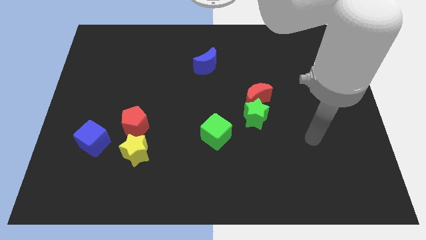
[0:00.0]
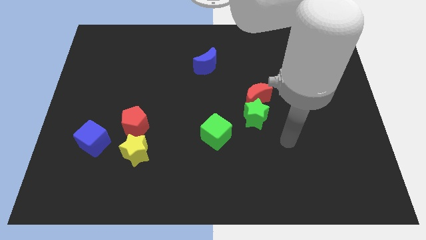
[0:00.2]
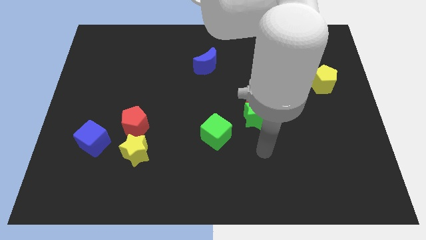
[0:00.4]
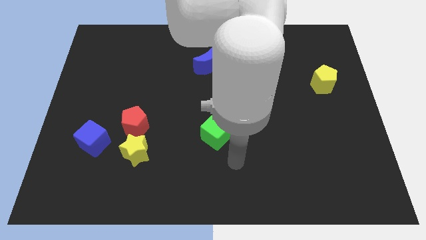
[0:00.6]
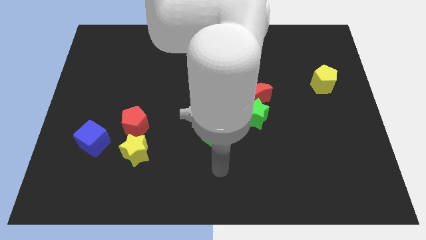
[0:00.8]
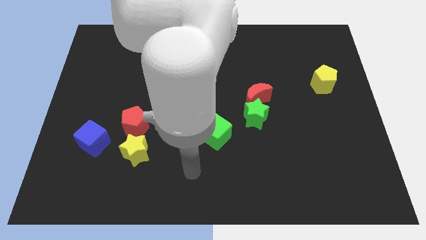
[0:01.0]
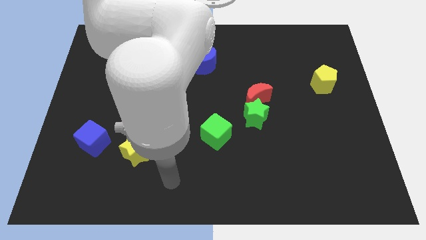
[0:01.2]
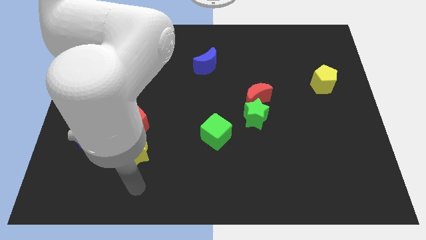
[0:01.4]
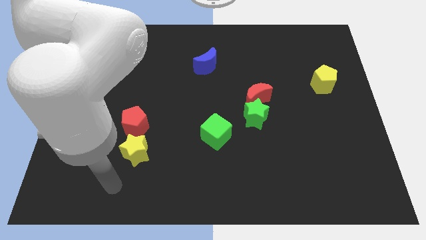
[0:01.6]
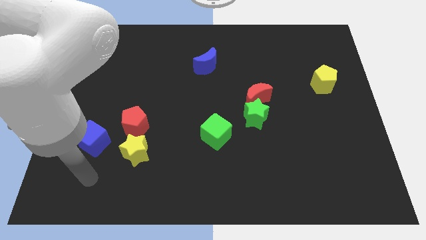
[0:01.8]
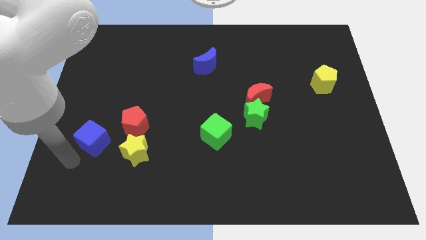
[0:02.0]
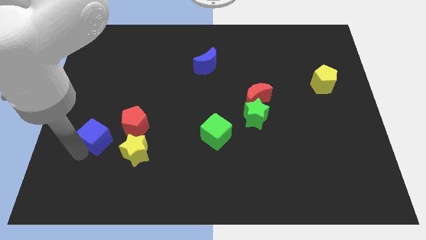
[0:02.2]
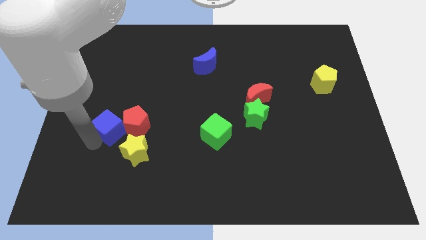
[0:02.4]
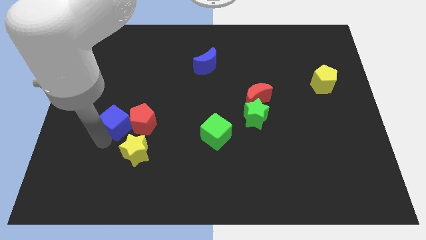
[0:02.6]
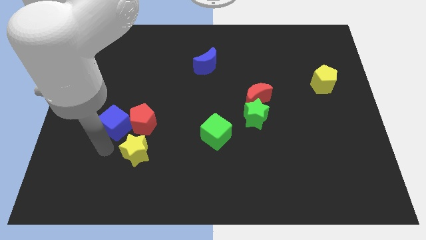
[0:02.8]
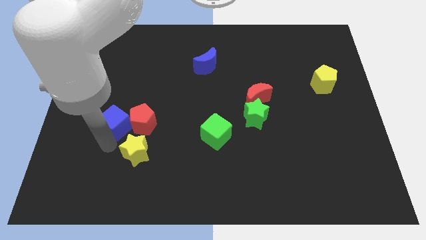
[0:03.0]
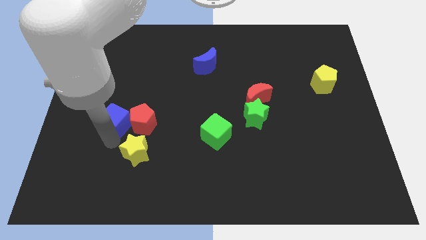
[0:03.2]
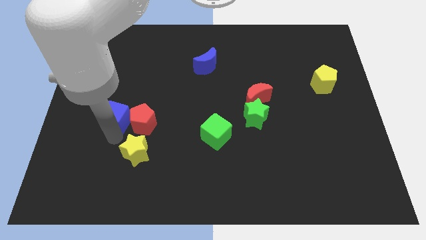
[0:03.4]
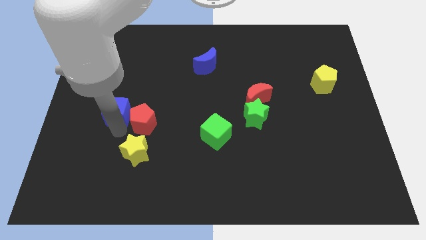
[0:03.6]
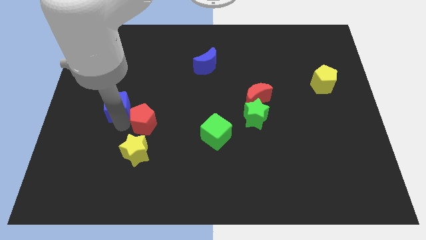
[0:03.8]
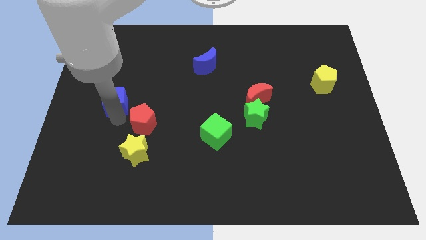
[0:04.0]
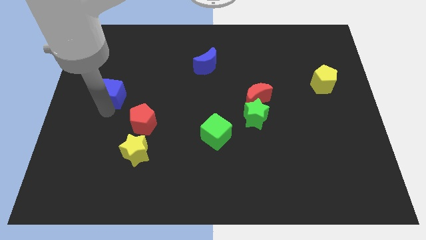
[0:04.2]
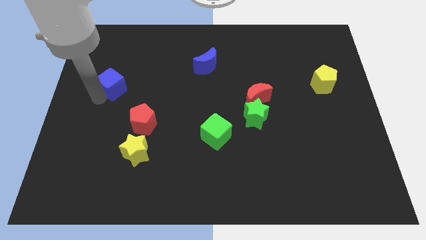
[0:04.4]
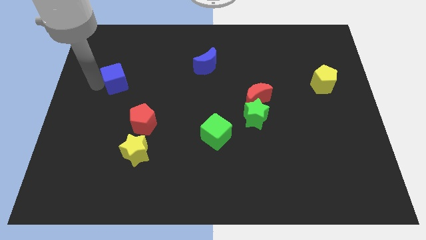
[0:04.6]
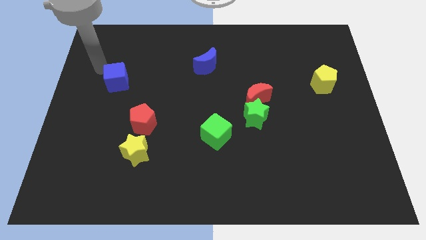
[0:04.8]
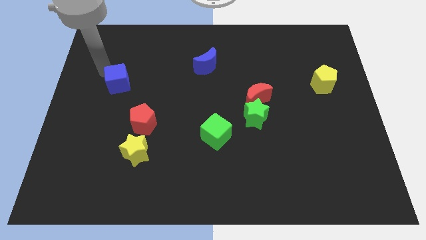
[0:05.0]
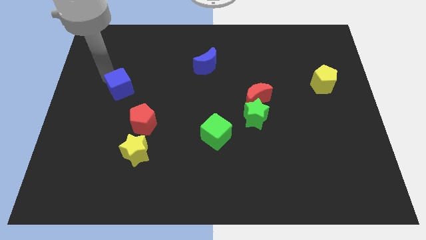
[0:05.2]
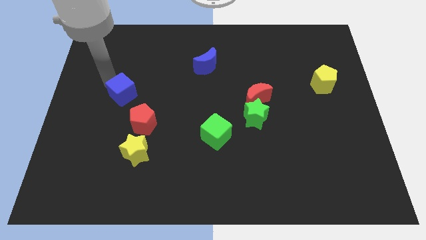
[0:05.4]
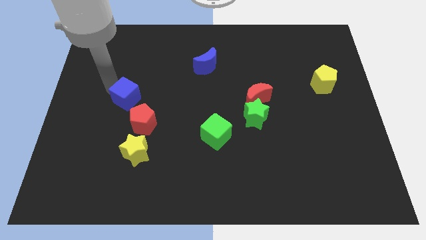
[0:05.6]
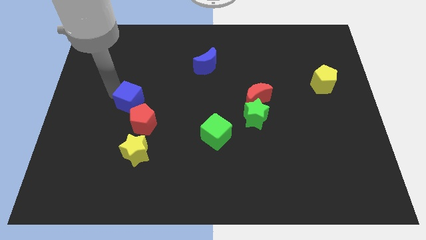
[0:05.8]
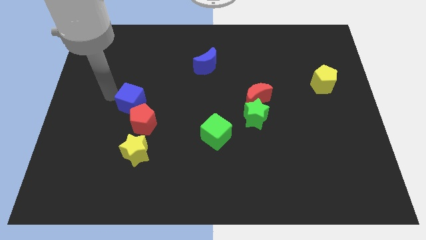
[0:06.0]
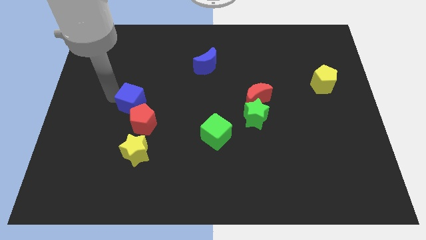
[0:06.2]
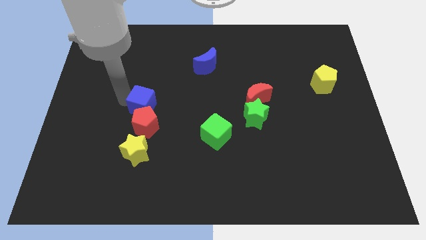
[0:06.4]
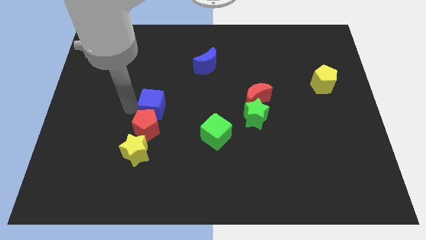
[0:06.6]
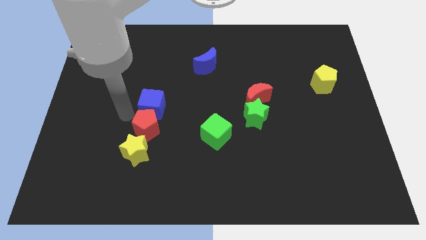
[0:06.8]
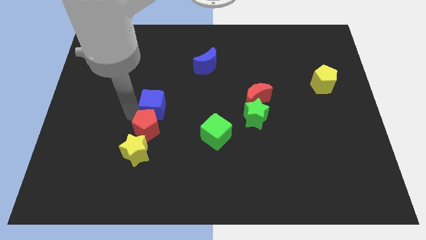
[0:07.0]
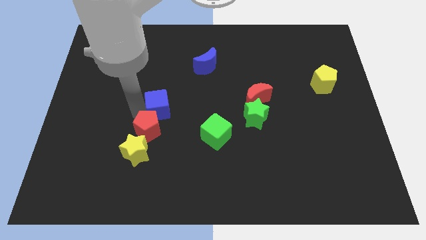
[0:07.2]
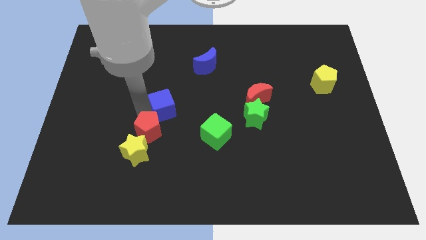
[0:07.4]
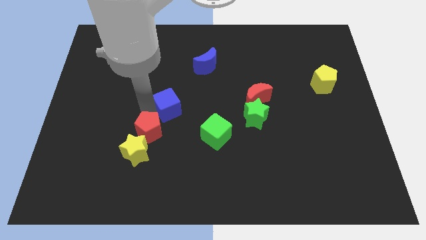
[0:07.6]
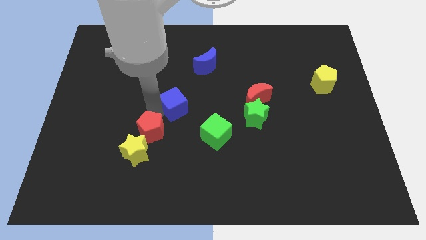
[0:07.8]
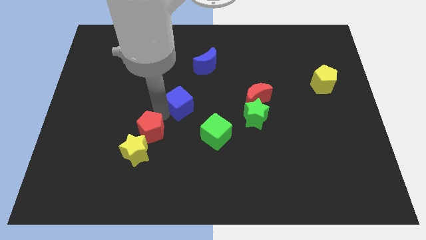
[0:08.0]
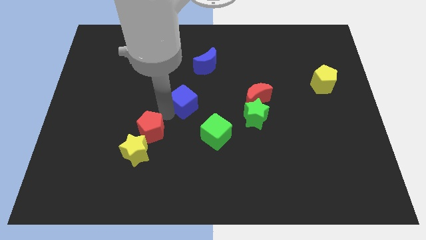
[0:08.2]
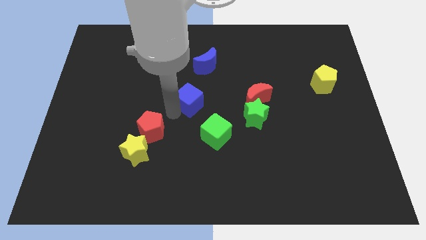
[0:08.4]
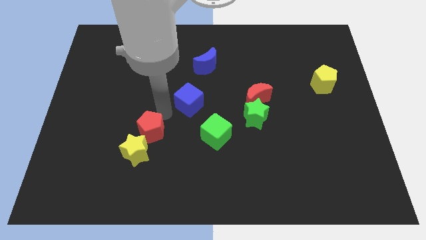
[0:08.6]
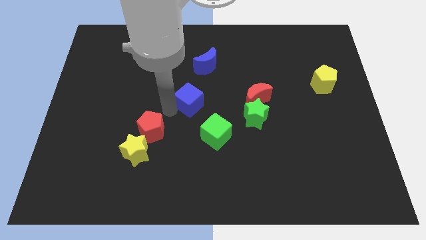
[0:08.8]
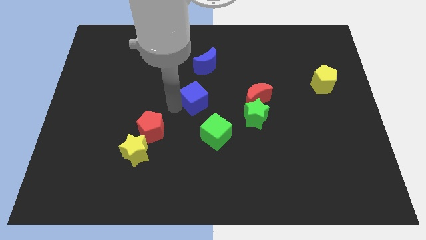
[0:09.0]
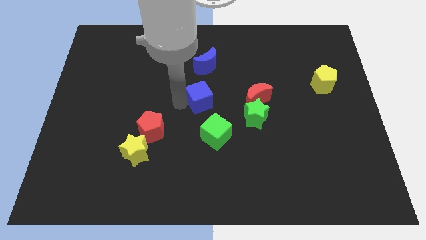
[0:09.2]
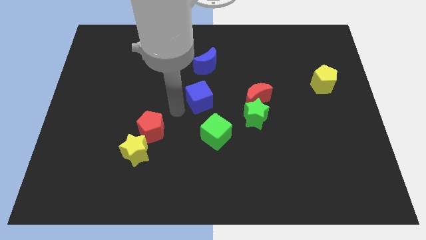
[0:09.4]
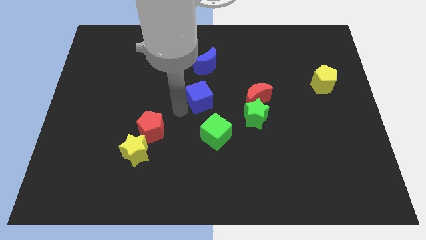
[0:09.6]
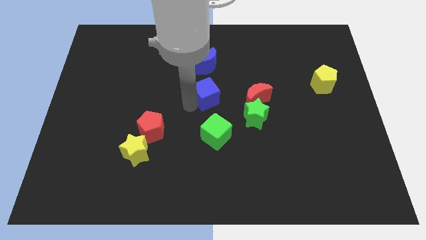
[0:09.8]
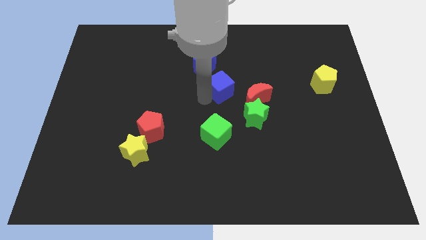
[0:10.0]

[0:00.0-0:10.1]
push the blue cube to the top left of the red moon

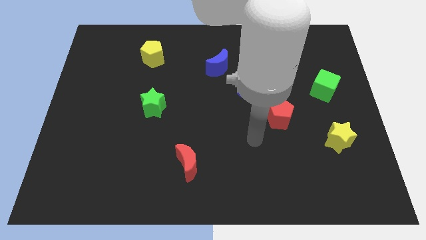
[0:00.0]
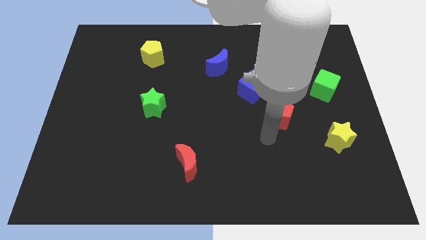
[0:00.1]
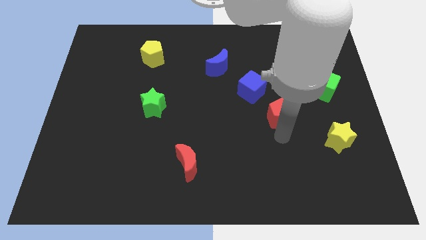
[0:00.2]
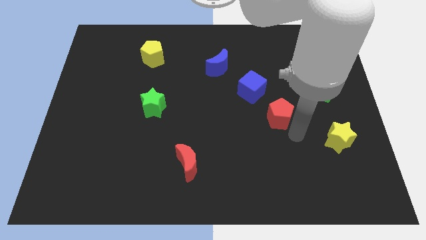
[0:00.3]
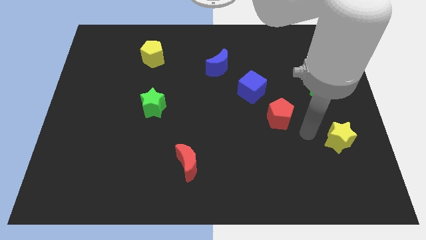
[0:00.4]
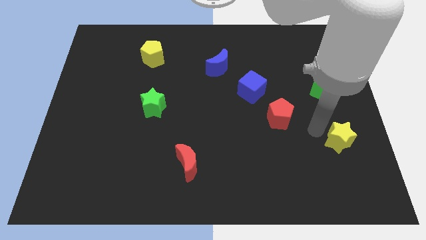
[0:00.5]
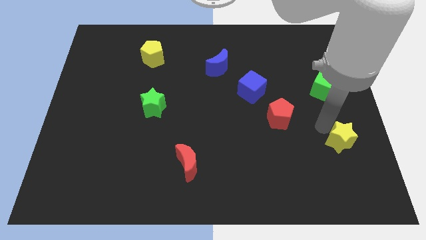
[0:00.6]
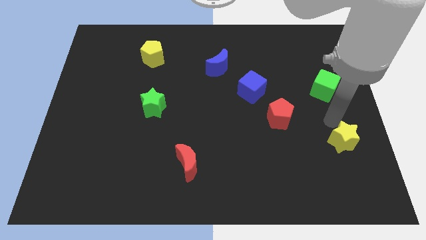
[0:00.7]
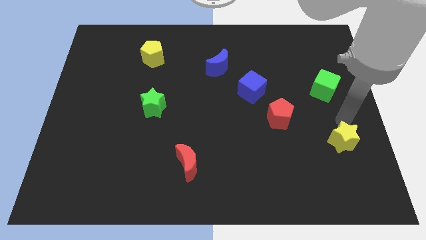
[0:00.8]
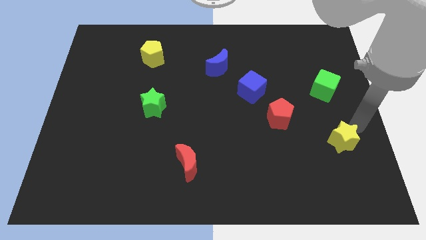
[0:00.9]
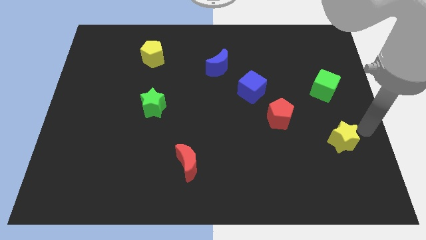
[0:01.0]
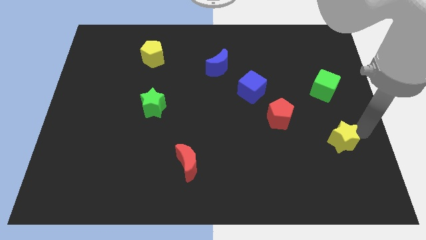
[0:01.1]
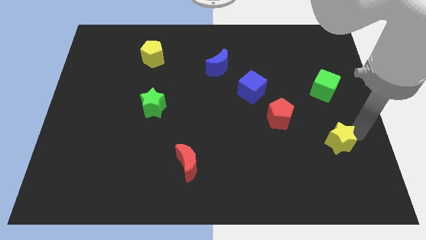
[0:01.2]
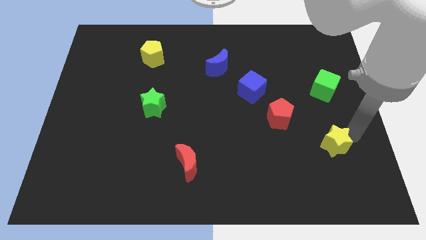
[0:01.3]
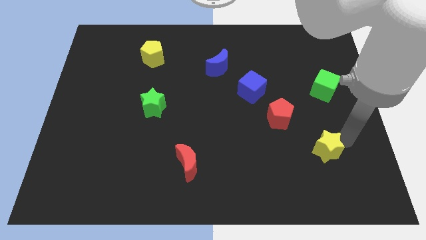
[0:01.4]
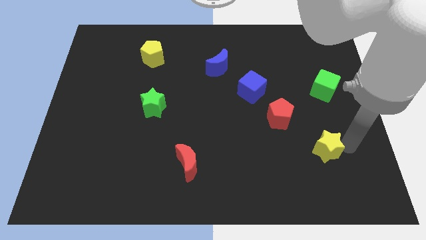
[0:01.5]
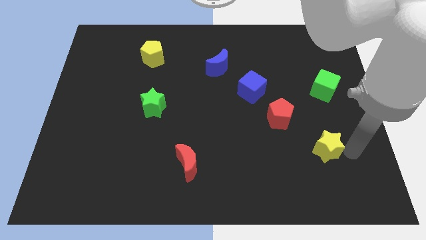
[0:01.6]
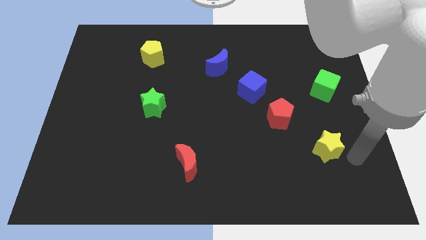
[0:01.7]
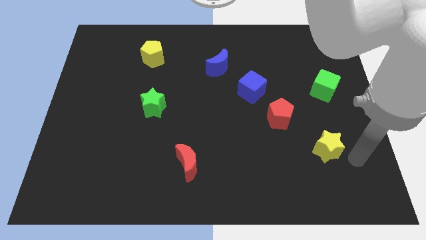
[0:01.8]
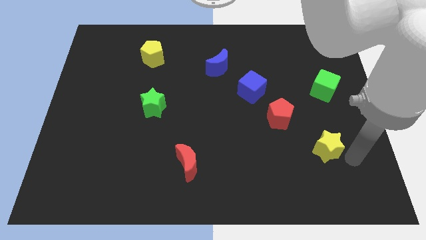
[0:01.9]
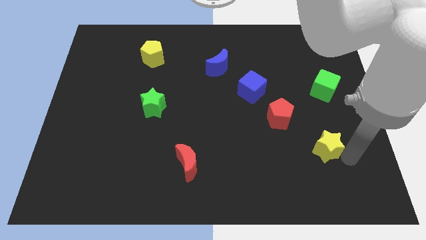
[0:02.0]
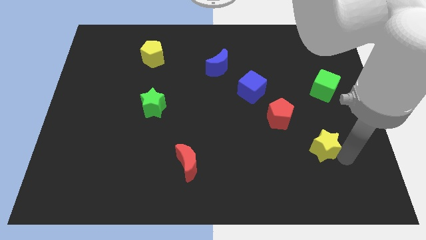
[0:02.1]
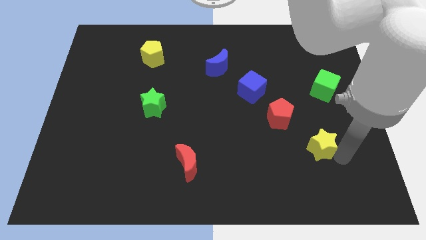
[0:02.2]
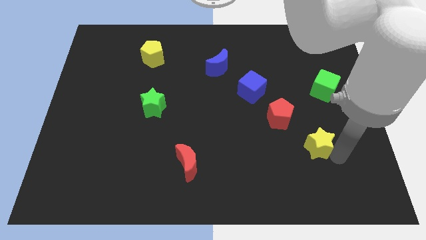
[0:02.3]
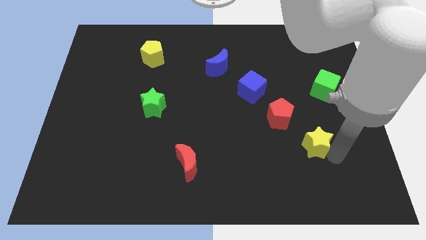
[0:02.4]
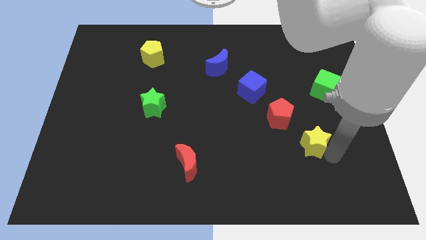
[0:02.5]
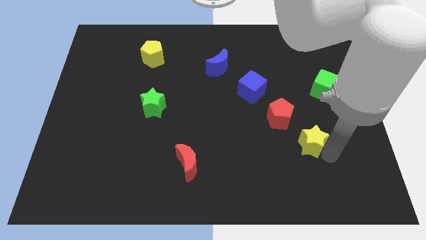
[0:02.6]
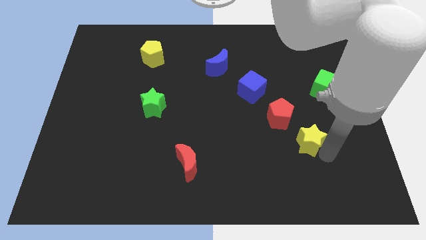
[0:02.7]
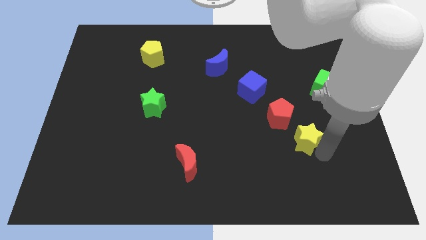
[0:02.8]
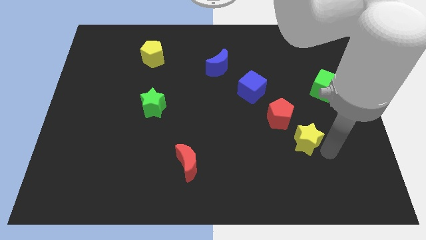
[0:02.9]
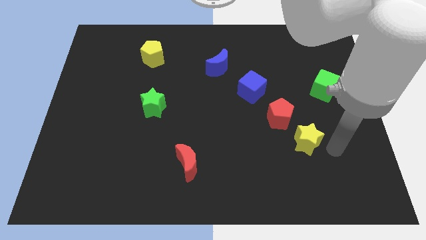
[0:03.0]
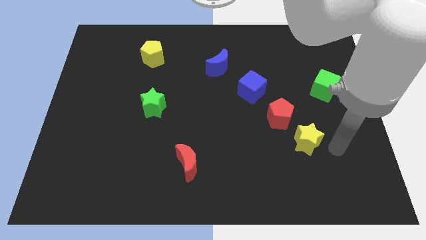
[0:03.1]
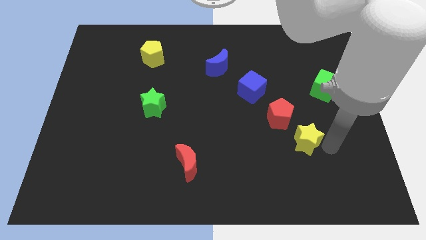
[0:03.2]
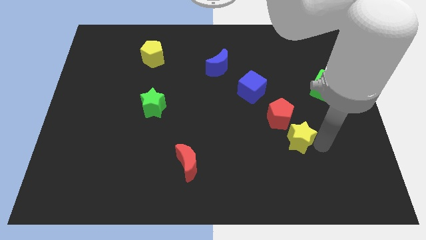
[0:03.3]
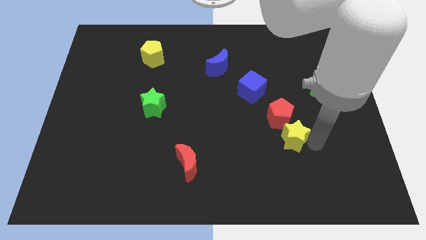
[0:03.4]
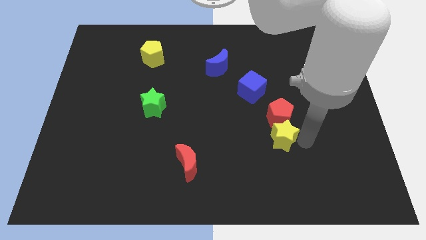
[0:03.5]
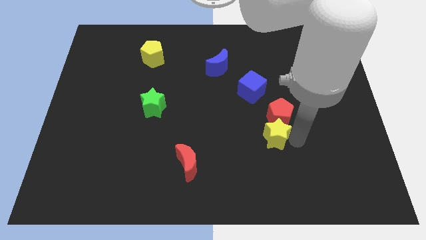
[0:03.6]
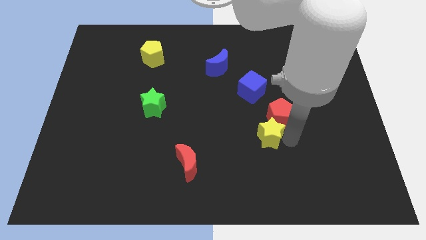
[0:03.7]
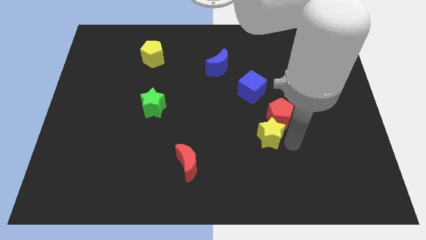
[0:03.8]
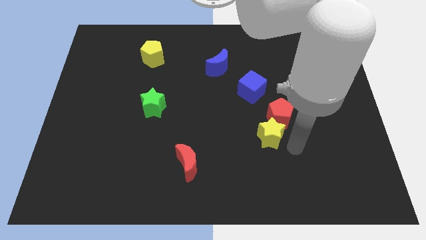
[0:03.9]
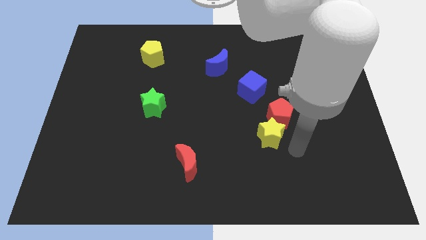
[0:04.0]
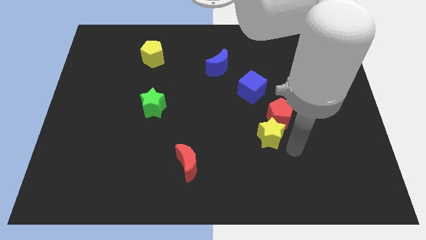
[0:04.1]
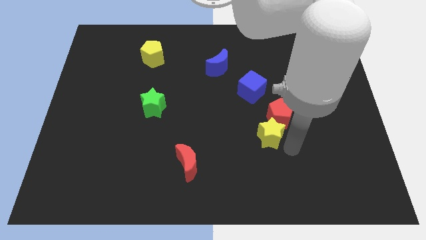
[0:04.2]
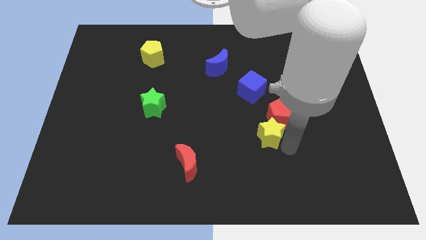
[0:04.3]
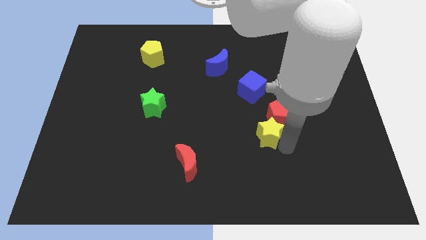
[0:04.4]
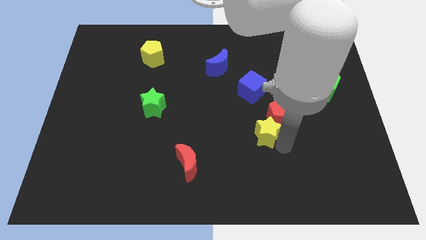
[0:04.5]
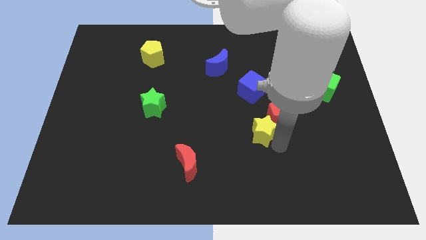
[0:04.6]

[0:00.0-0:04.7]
slide the yellow star to the left side of the red pentagon
